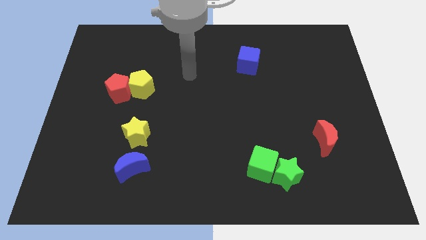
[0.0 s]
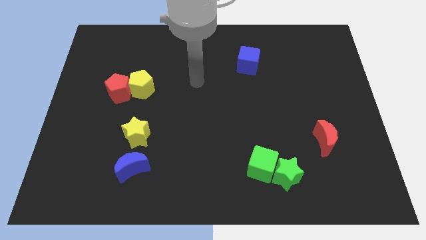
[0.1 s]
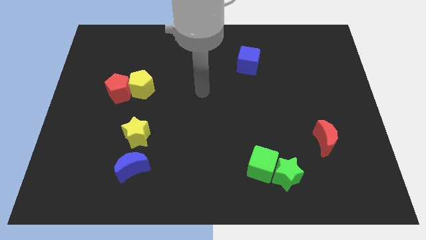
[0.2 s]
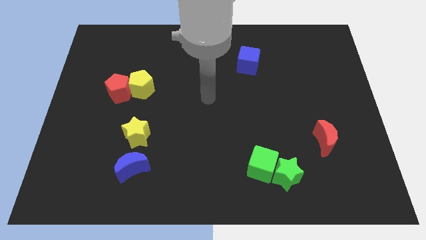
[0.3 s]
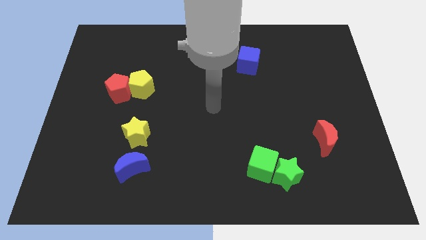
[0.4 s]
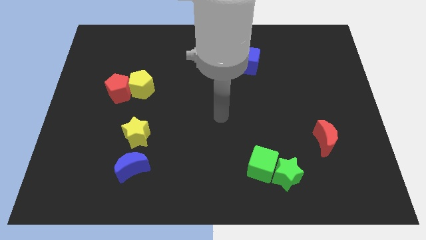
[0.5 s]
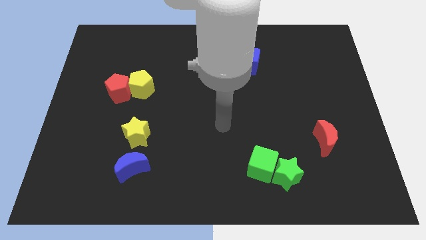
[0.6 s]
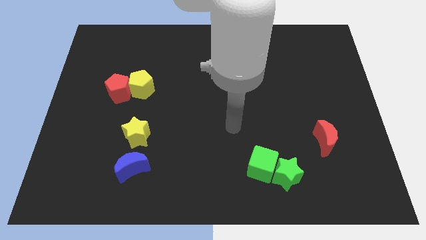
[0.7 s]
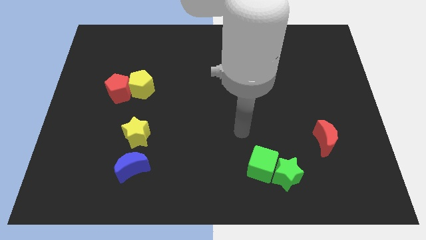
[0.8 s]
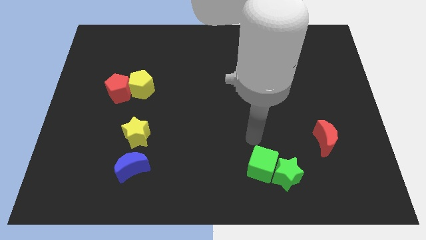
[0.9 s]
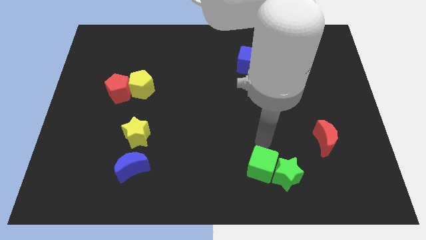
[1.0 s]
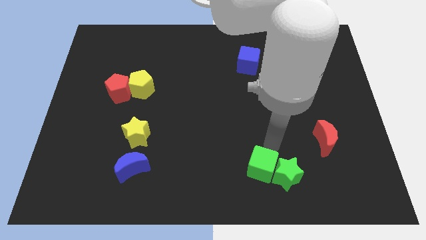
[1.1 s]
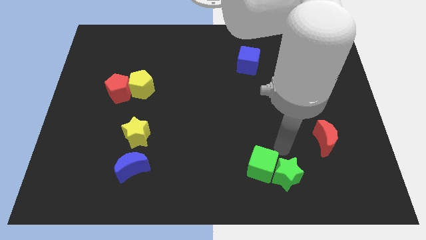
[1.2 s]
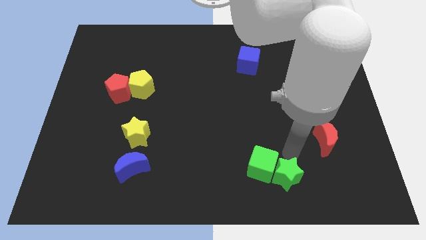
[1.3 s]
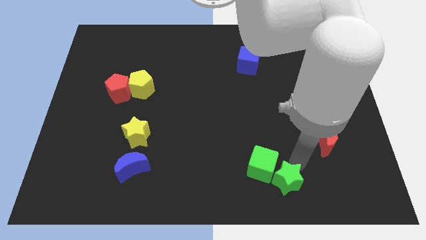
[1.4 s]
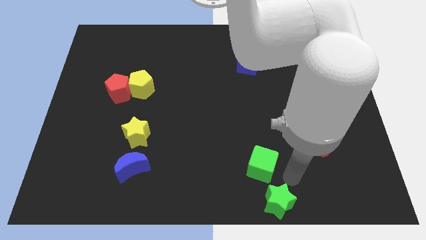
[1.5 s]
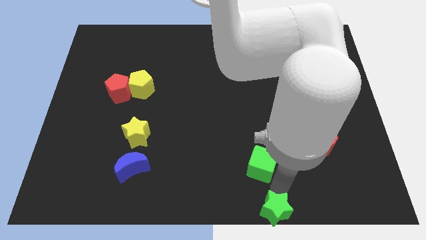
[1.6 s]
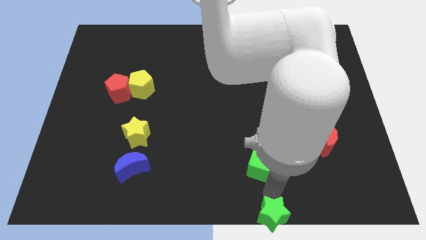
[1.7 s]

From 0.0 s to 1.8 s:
pull the green cube apart from the green star

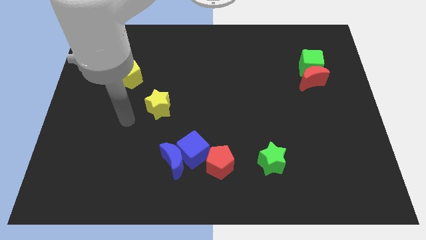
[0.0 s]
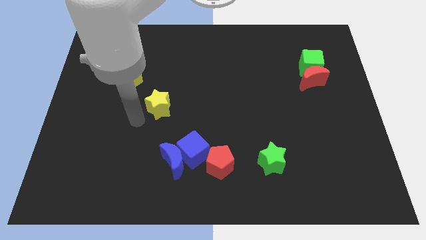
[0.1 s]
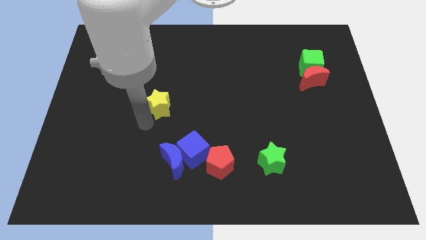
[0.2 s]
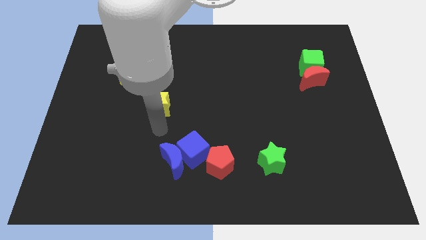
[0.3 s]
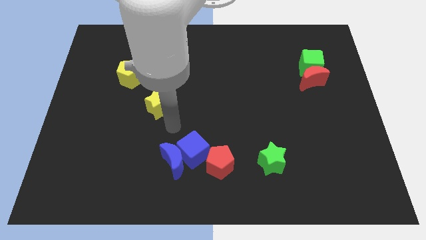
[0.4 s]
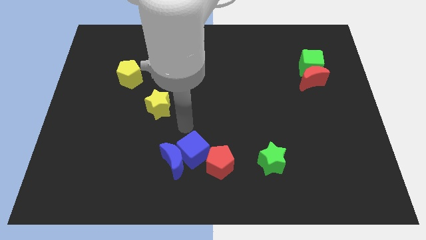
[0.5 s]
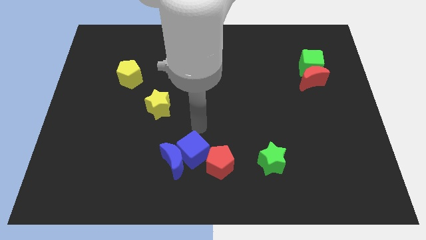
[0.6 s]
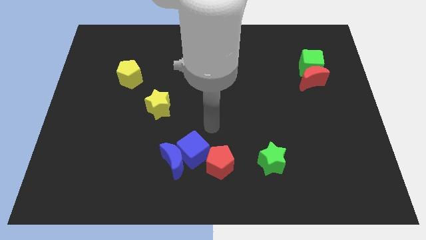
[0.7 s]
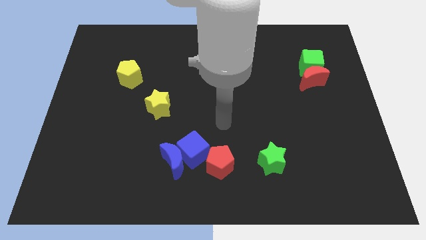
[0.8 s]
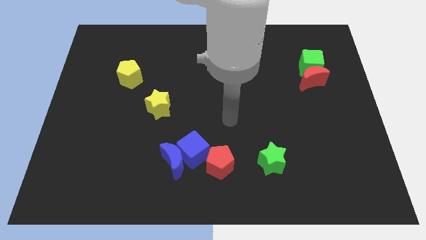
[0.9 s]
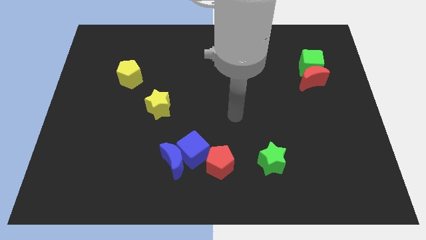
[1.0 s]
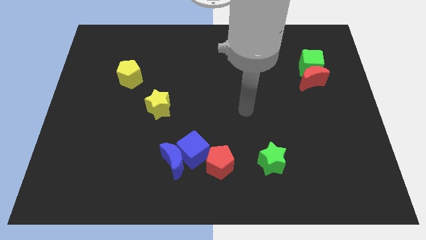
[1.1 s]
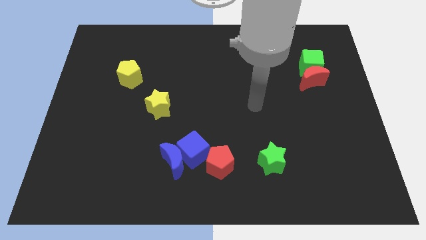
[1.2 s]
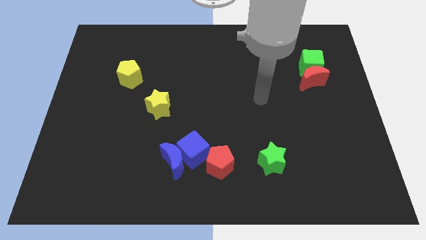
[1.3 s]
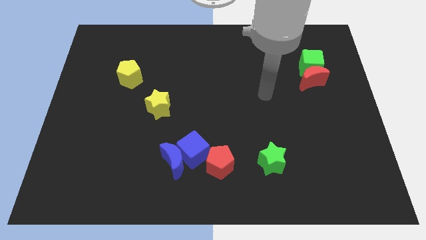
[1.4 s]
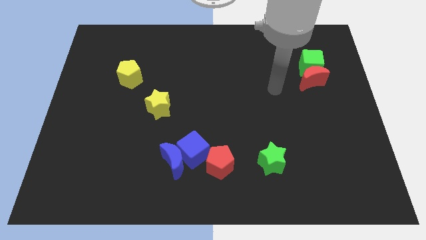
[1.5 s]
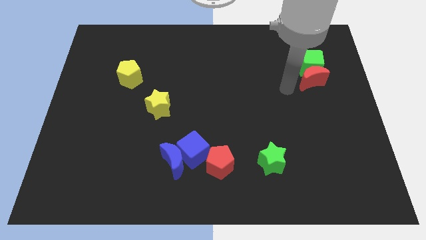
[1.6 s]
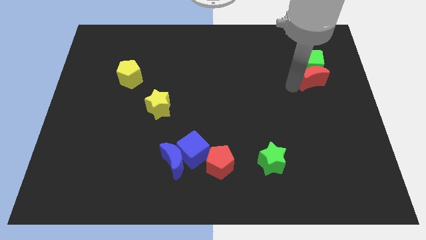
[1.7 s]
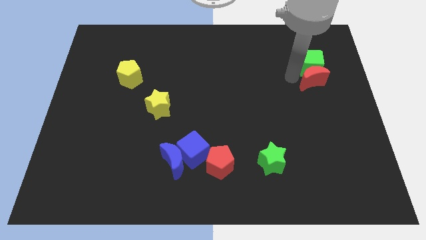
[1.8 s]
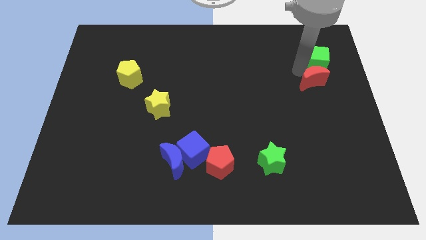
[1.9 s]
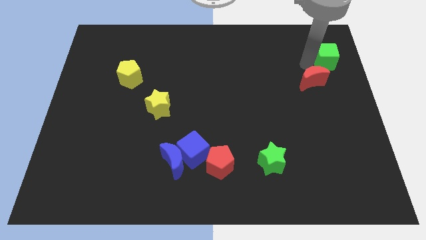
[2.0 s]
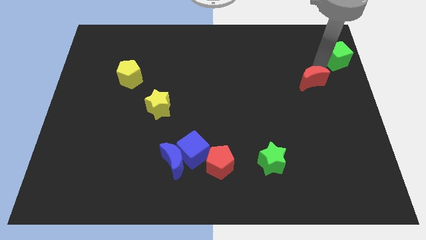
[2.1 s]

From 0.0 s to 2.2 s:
separate the red moon from the green cube

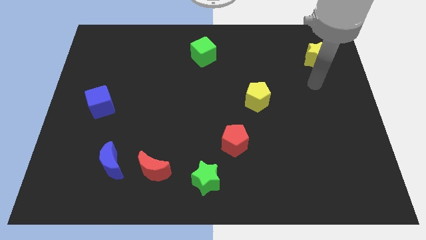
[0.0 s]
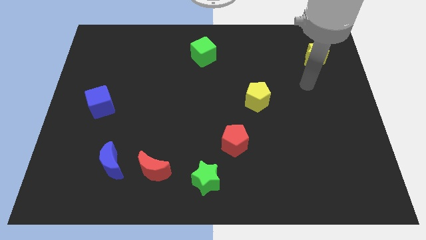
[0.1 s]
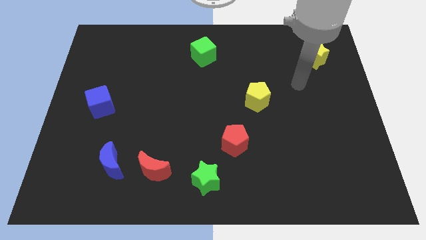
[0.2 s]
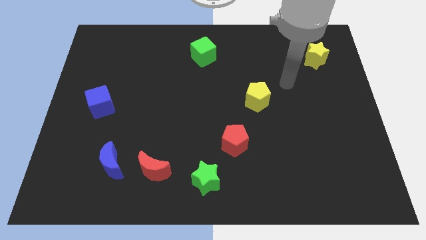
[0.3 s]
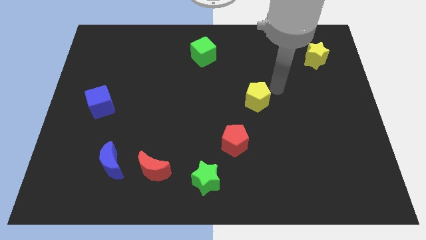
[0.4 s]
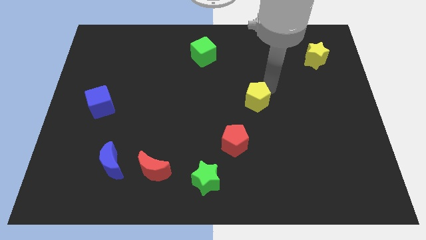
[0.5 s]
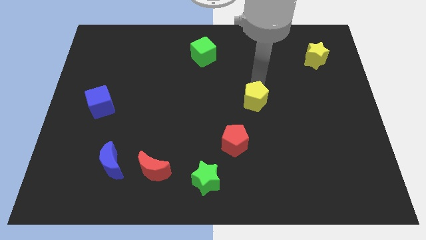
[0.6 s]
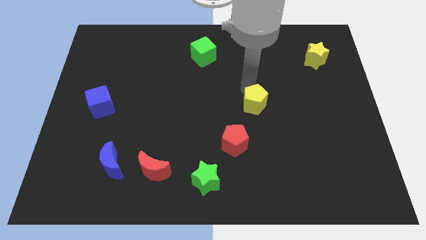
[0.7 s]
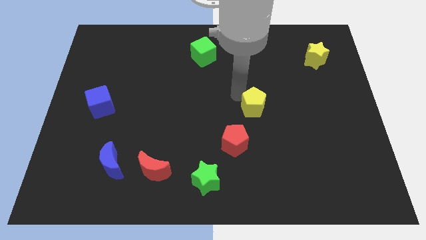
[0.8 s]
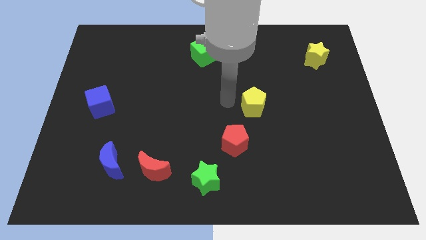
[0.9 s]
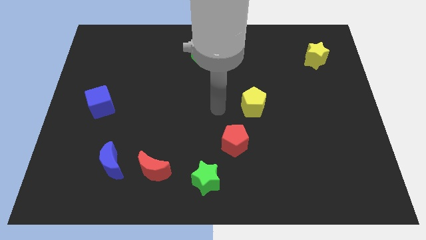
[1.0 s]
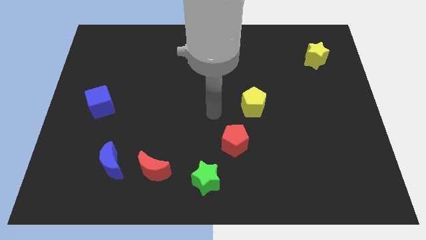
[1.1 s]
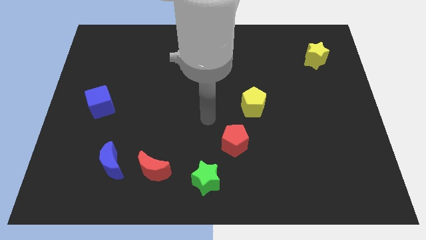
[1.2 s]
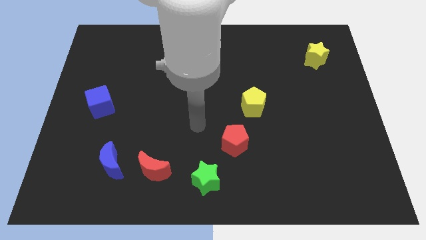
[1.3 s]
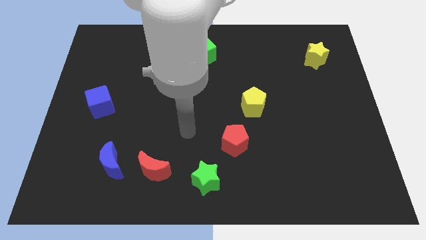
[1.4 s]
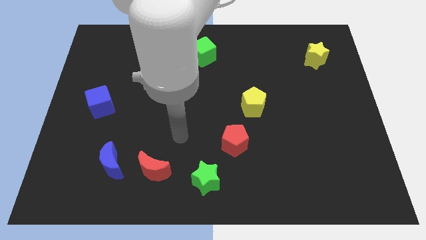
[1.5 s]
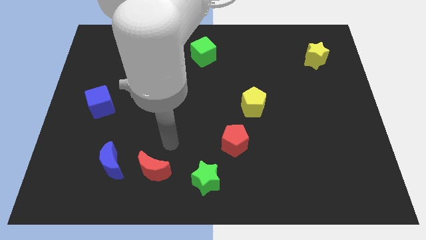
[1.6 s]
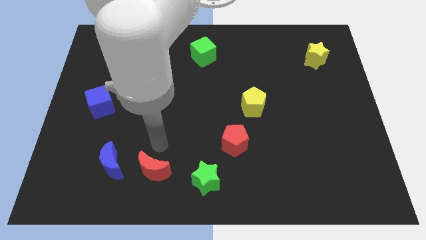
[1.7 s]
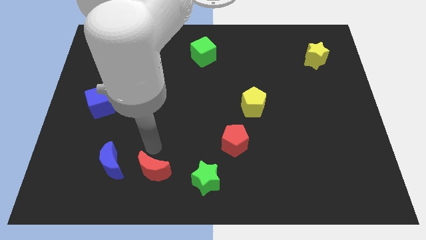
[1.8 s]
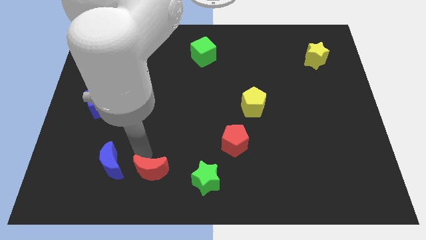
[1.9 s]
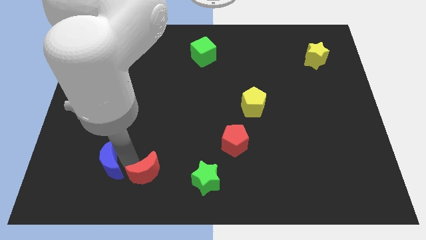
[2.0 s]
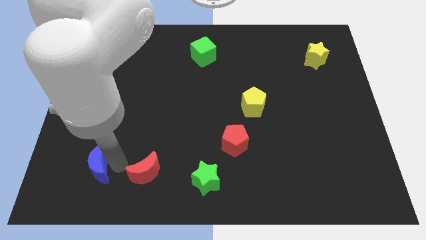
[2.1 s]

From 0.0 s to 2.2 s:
separate the red moon from the blue moon

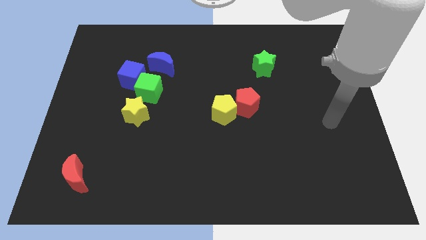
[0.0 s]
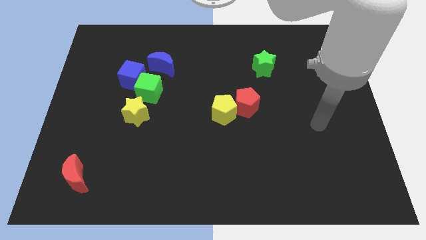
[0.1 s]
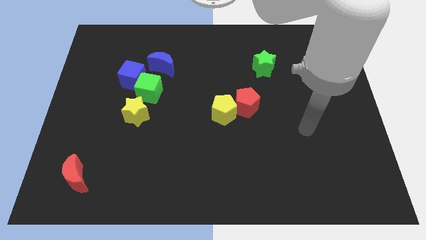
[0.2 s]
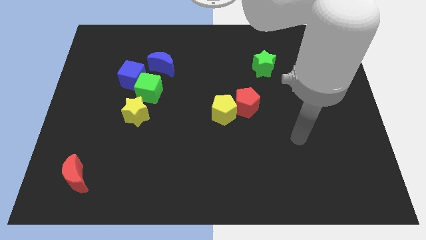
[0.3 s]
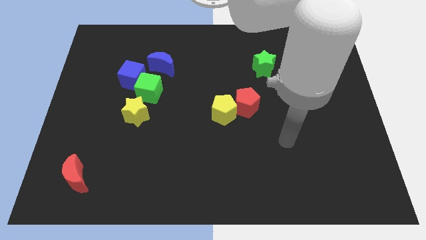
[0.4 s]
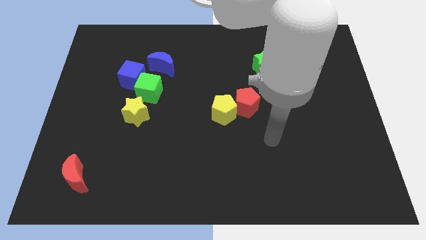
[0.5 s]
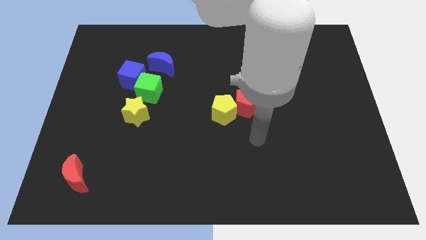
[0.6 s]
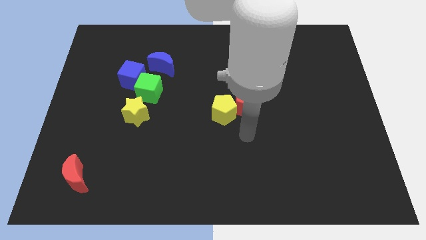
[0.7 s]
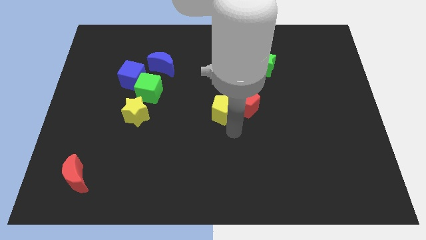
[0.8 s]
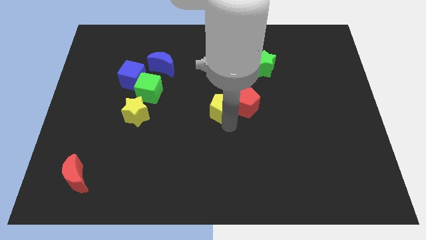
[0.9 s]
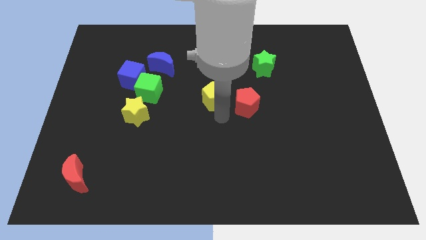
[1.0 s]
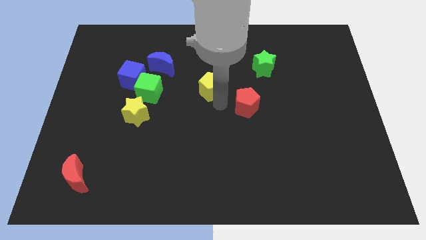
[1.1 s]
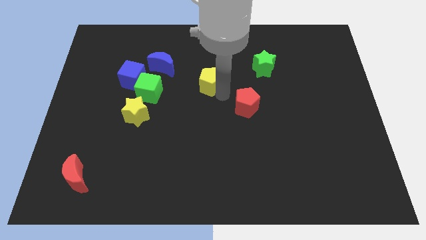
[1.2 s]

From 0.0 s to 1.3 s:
pull the red pentagon apart from the yellow pentagon

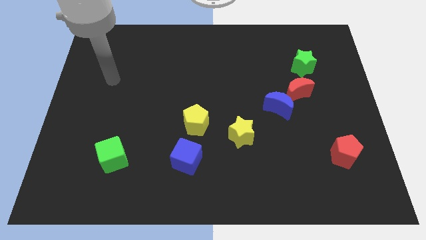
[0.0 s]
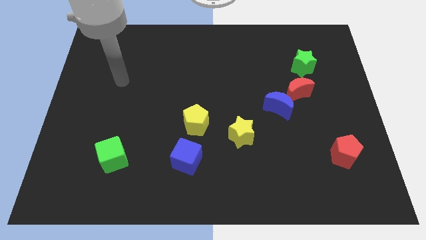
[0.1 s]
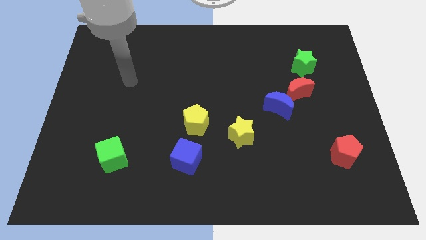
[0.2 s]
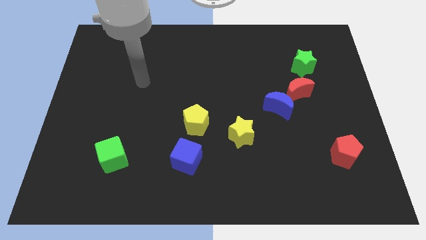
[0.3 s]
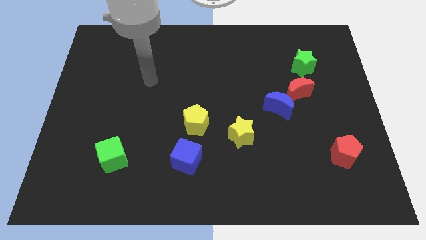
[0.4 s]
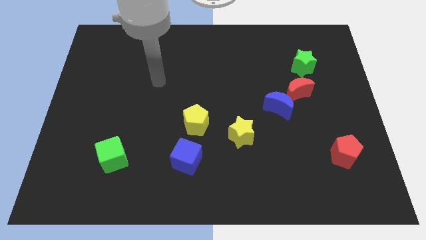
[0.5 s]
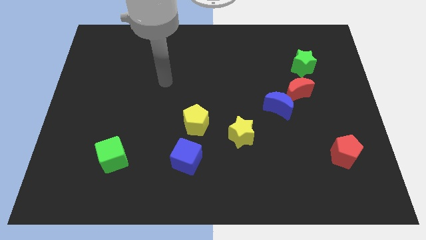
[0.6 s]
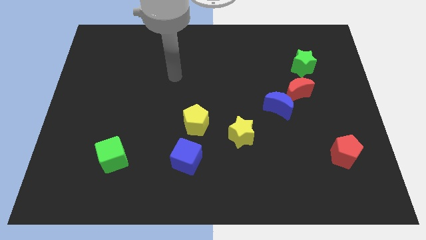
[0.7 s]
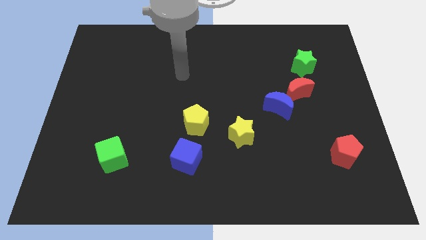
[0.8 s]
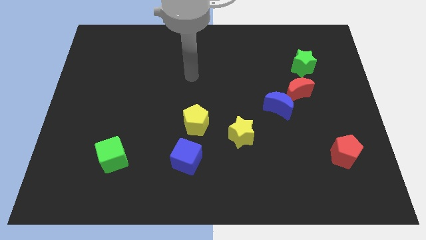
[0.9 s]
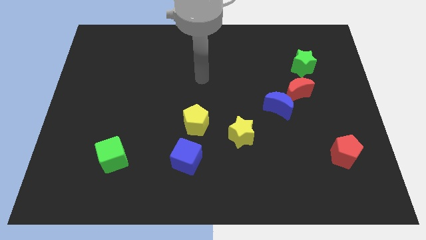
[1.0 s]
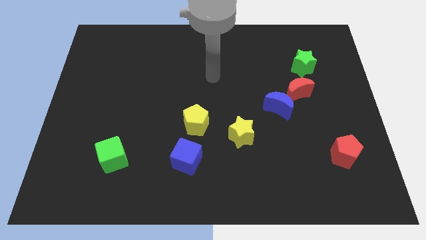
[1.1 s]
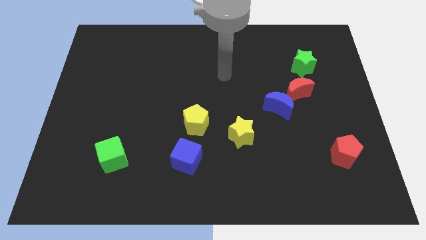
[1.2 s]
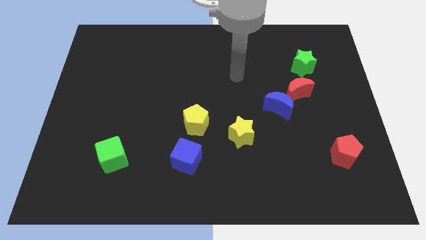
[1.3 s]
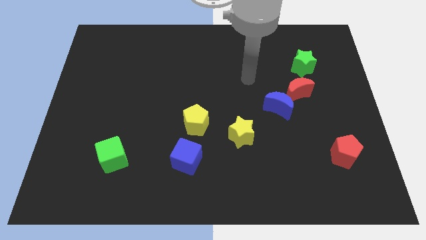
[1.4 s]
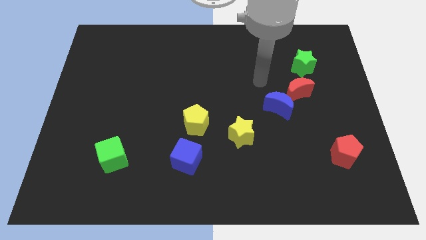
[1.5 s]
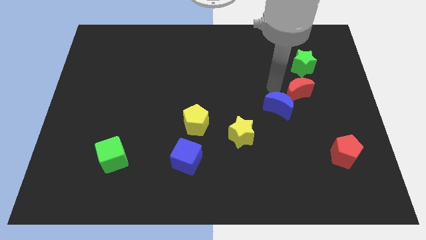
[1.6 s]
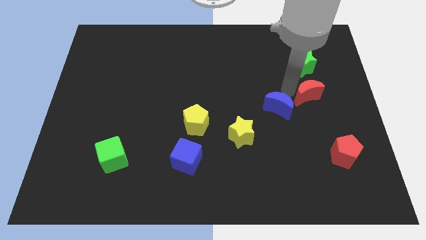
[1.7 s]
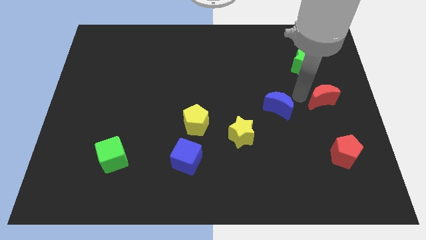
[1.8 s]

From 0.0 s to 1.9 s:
separate the blue moon from the red moon

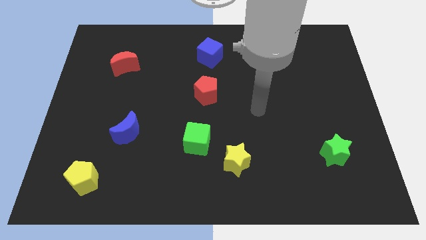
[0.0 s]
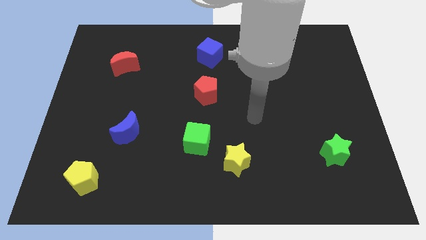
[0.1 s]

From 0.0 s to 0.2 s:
pull the green cube apart from the yellow star
